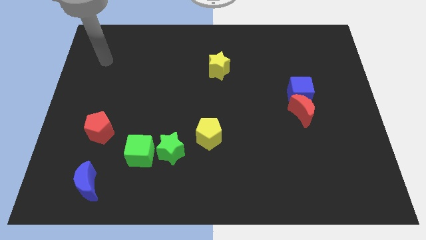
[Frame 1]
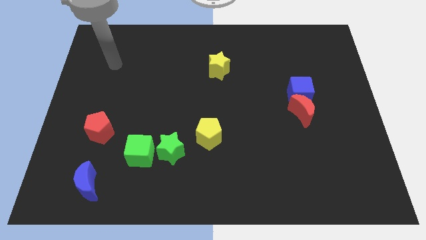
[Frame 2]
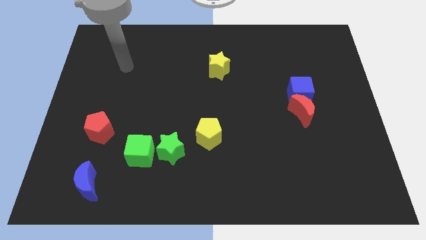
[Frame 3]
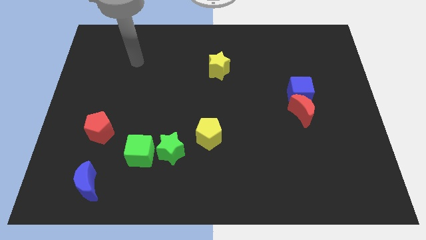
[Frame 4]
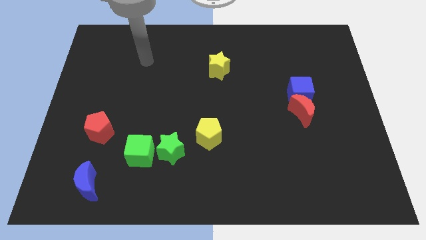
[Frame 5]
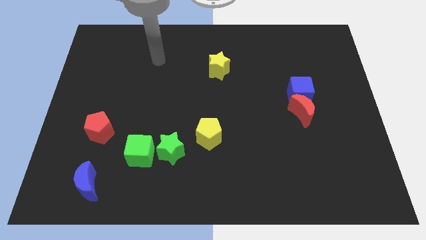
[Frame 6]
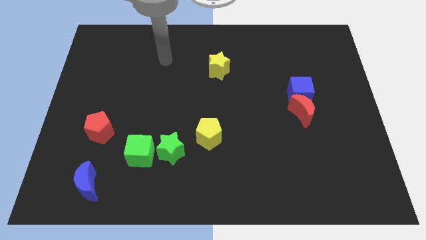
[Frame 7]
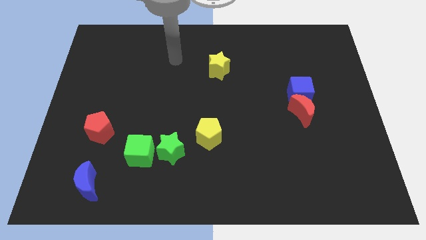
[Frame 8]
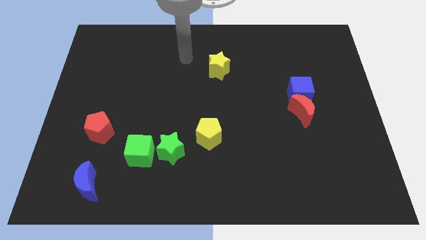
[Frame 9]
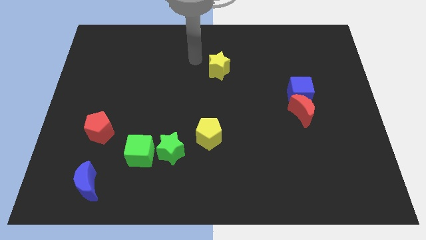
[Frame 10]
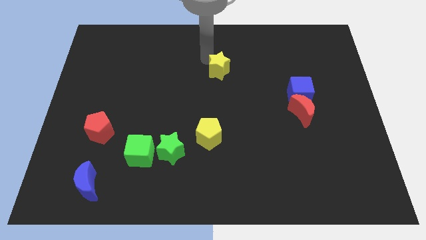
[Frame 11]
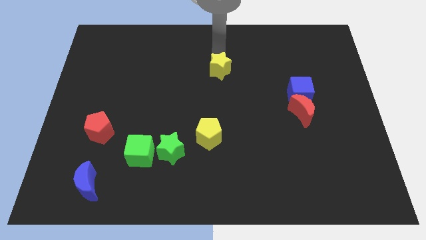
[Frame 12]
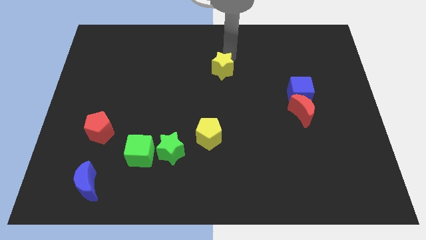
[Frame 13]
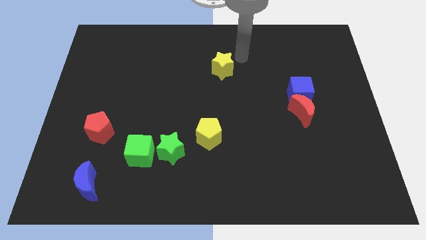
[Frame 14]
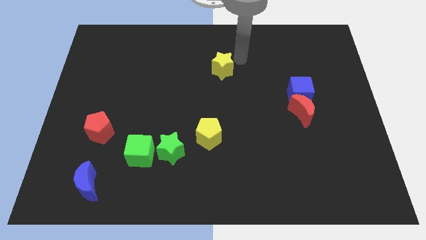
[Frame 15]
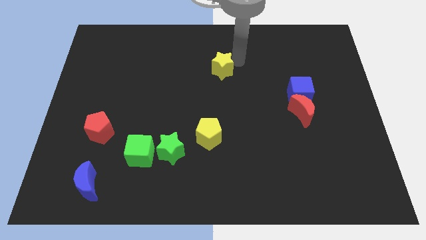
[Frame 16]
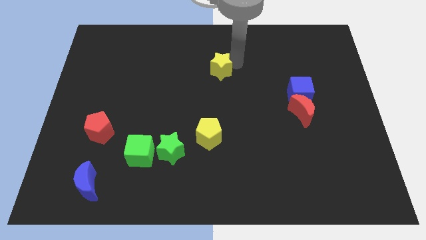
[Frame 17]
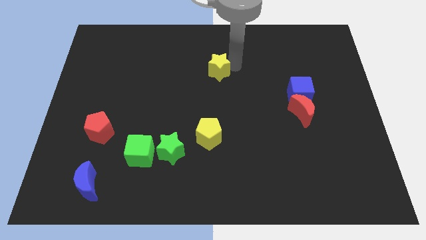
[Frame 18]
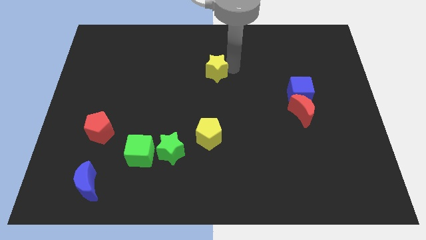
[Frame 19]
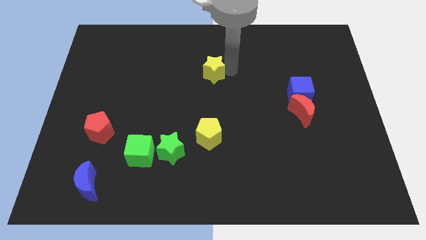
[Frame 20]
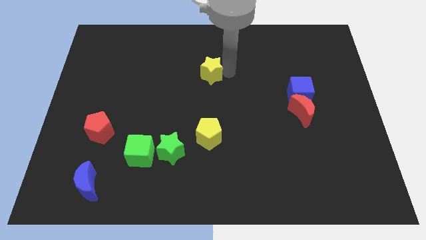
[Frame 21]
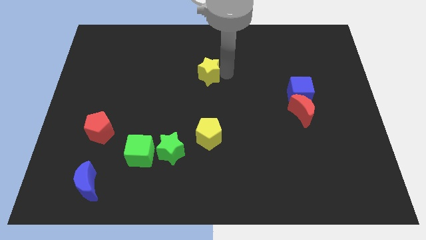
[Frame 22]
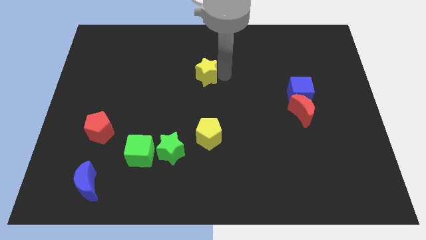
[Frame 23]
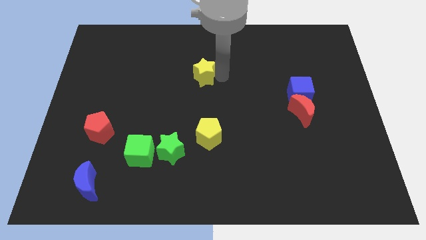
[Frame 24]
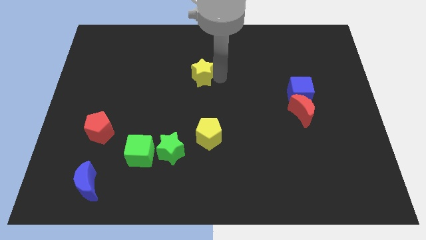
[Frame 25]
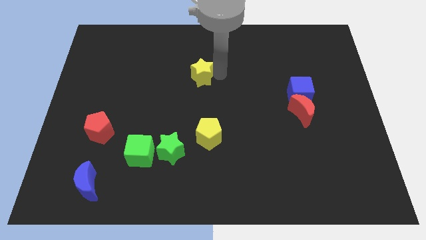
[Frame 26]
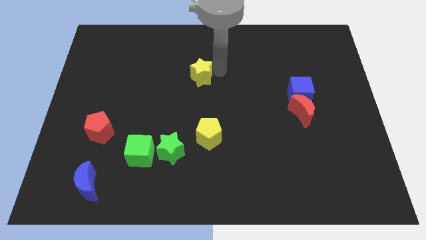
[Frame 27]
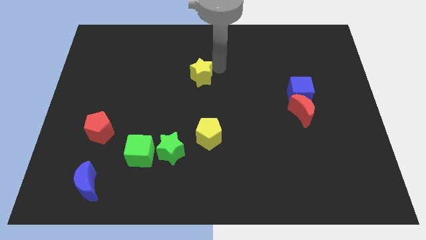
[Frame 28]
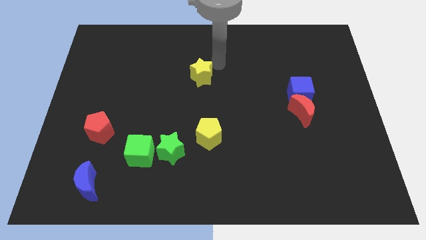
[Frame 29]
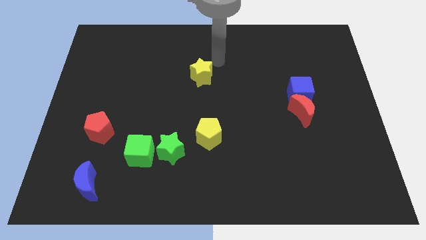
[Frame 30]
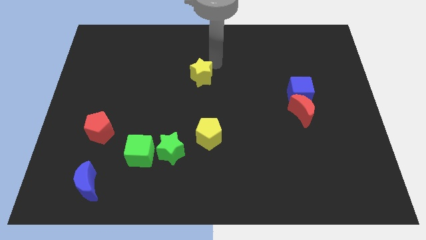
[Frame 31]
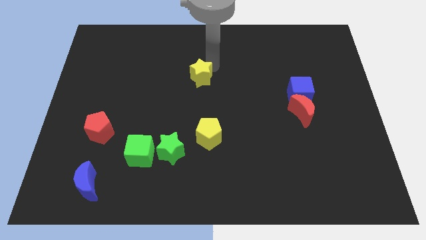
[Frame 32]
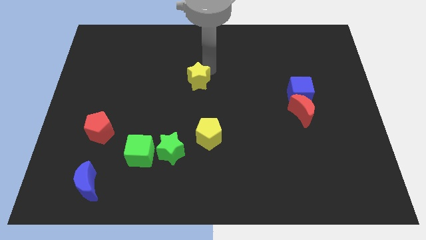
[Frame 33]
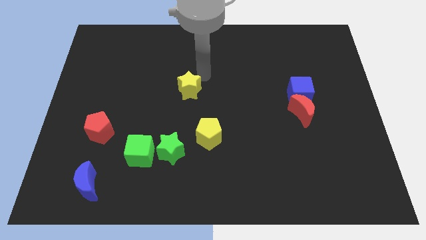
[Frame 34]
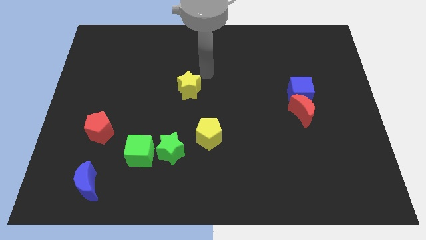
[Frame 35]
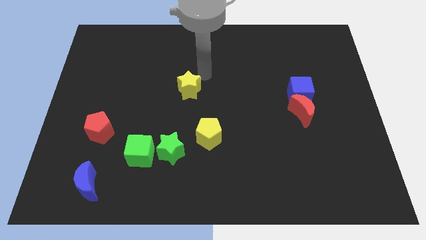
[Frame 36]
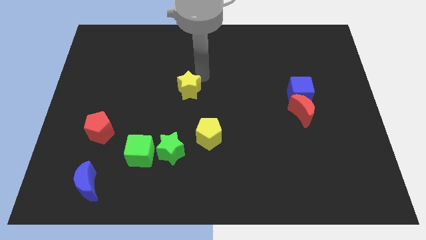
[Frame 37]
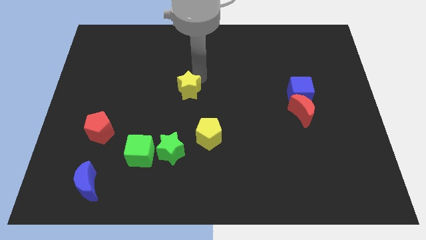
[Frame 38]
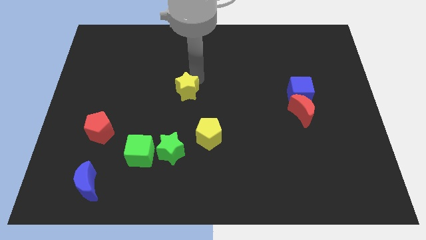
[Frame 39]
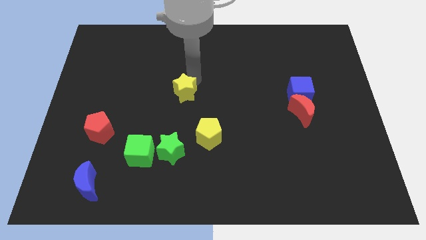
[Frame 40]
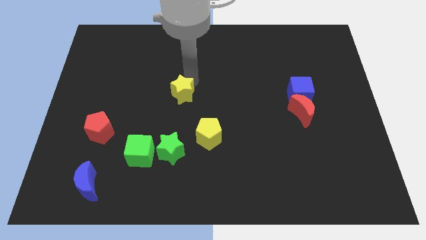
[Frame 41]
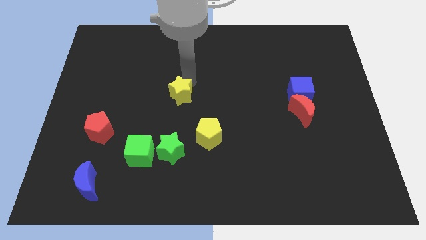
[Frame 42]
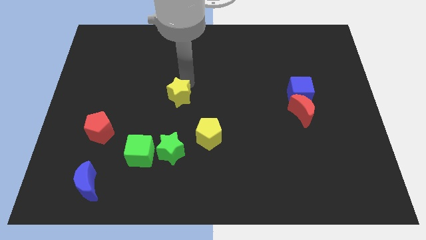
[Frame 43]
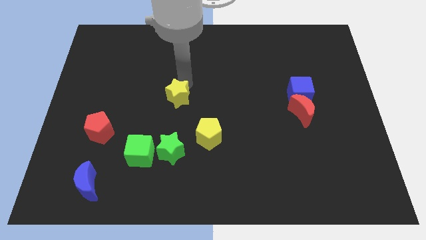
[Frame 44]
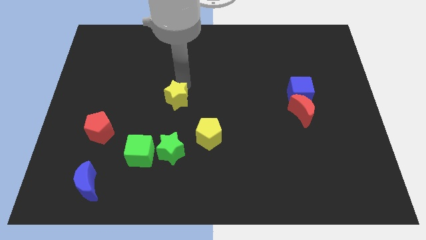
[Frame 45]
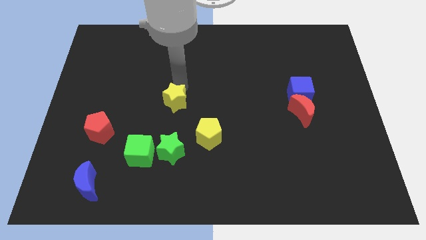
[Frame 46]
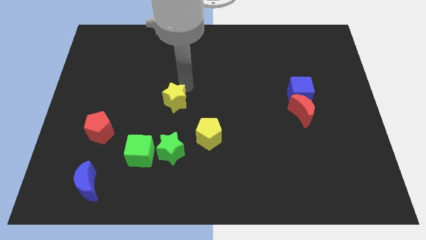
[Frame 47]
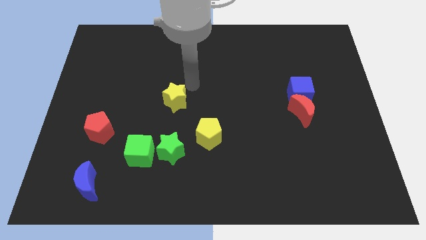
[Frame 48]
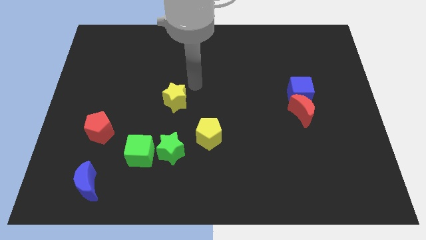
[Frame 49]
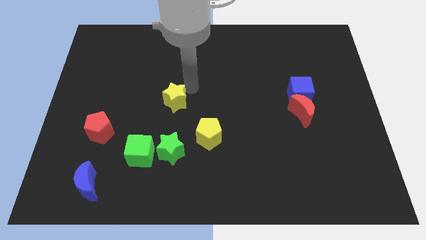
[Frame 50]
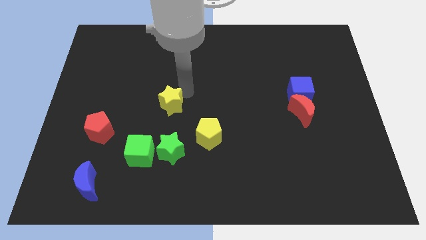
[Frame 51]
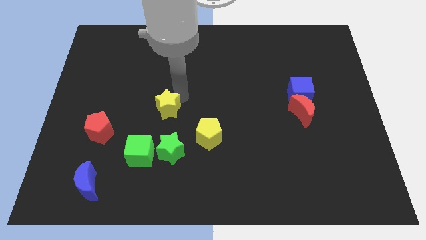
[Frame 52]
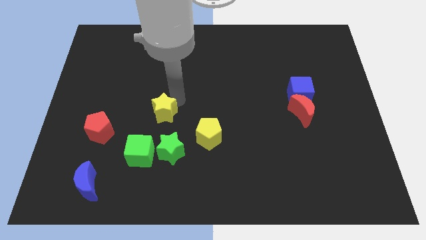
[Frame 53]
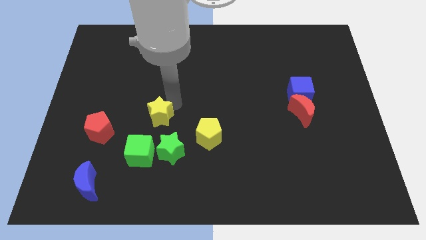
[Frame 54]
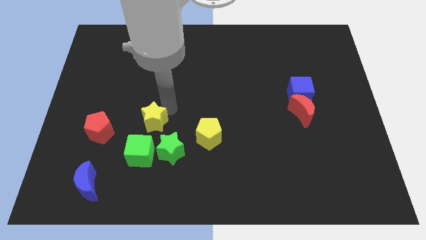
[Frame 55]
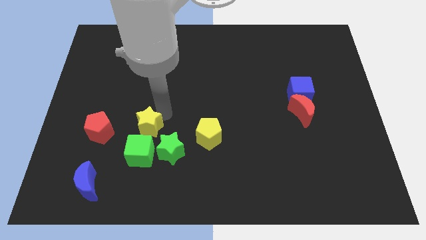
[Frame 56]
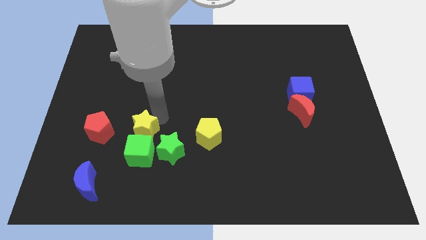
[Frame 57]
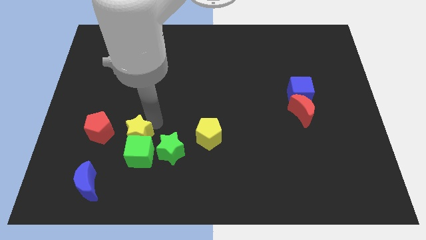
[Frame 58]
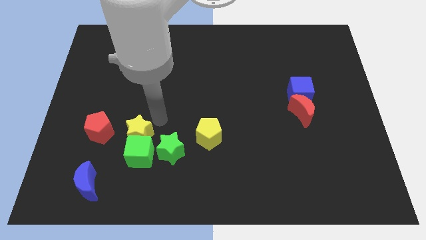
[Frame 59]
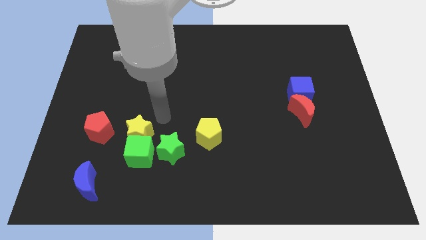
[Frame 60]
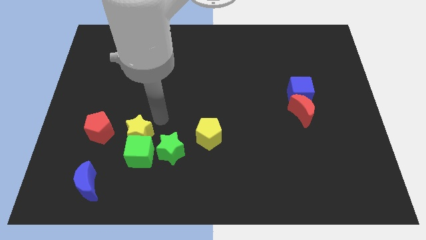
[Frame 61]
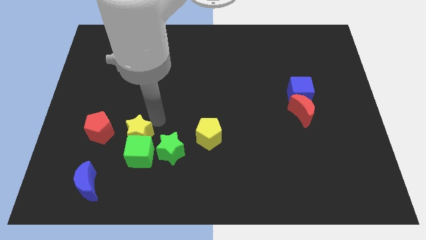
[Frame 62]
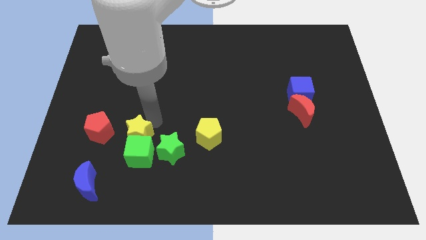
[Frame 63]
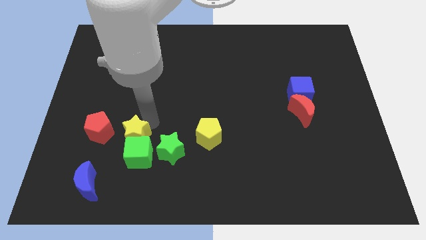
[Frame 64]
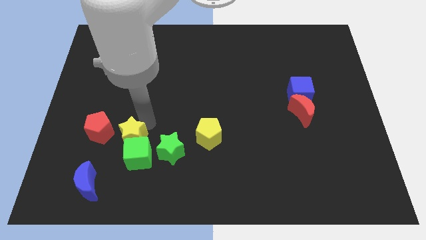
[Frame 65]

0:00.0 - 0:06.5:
push the yellow star to the bottom right of the red pentagon

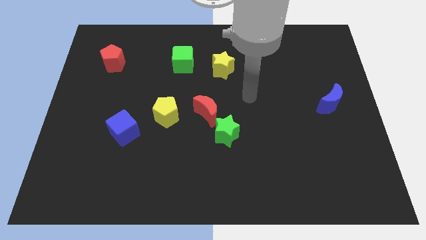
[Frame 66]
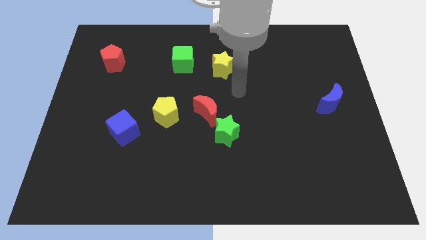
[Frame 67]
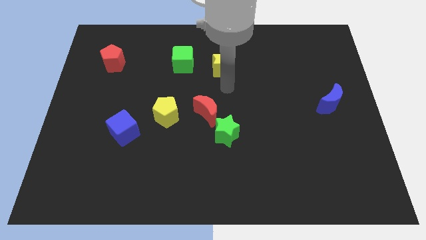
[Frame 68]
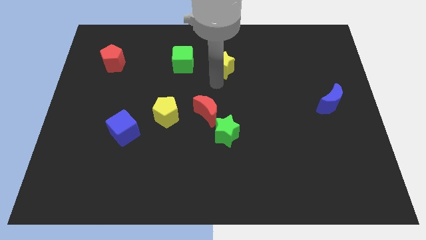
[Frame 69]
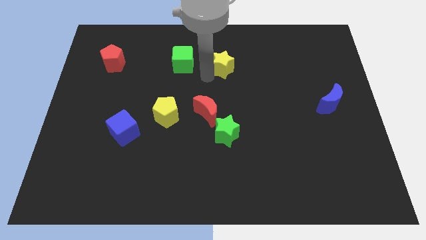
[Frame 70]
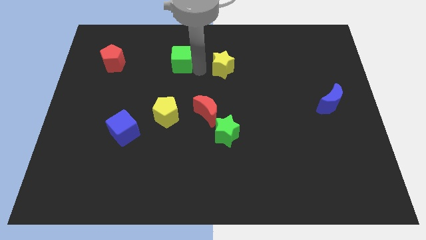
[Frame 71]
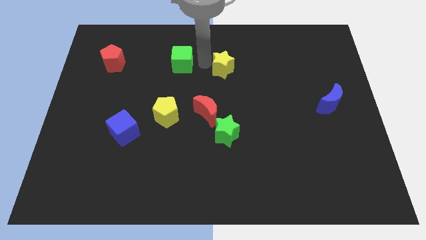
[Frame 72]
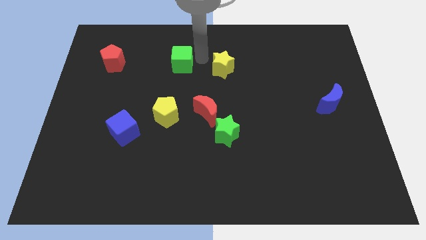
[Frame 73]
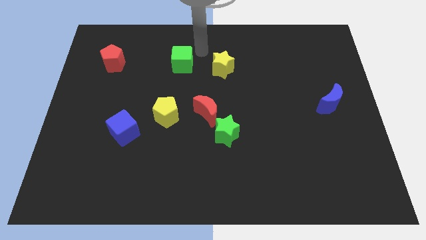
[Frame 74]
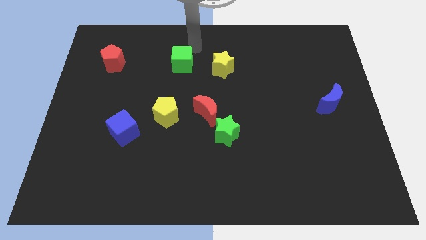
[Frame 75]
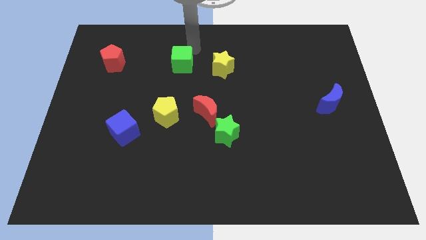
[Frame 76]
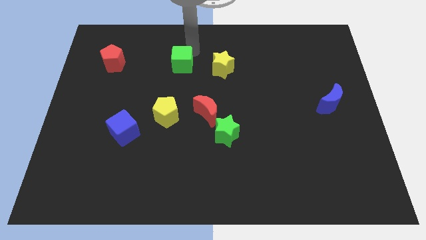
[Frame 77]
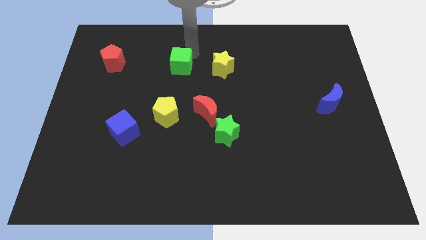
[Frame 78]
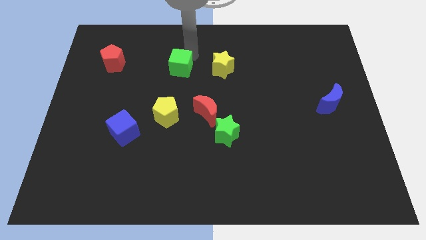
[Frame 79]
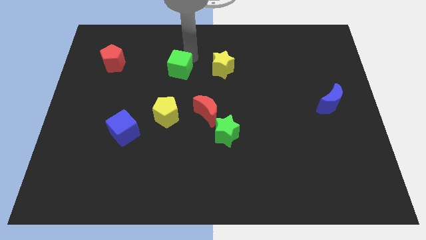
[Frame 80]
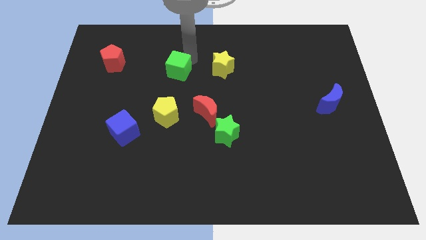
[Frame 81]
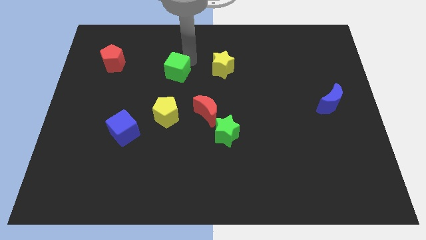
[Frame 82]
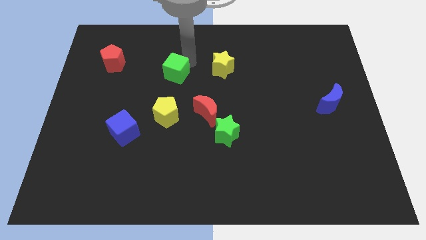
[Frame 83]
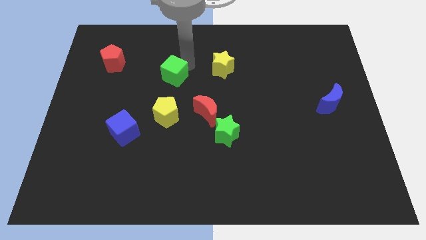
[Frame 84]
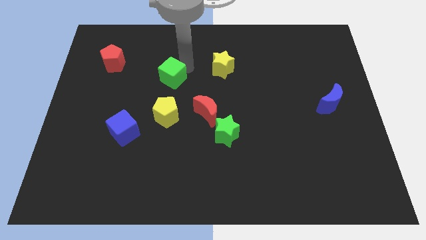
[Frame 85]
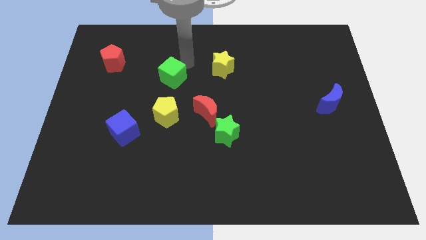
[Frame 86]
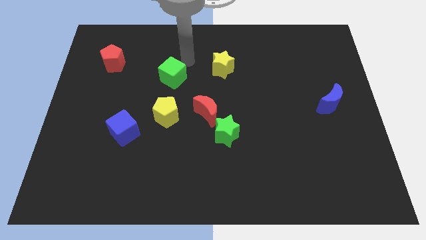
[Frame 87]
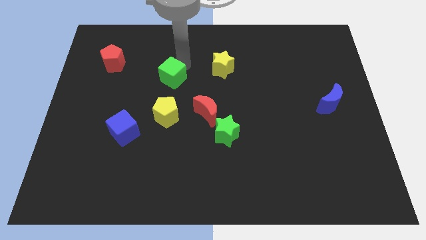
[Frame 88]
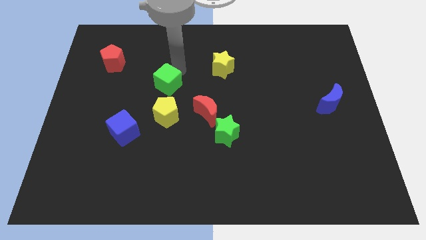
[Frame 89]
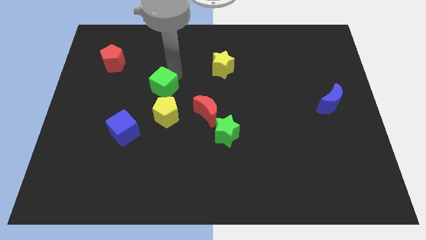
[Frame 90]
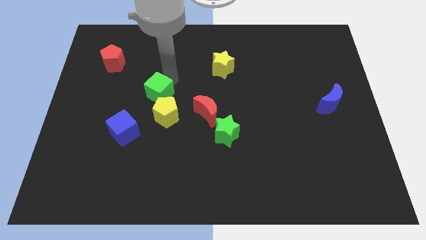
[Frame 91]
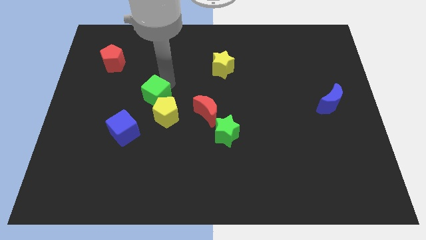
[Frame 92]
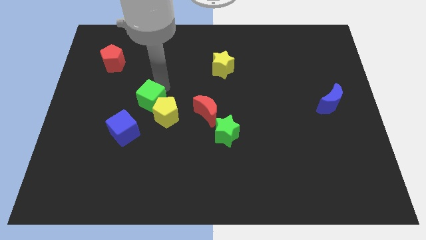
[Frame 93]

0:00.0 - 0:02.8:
put the green cube left of the red moon
